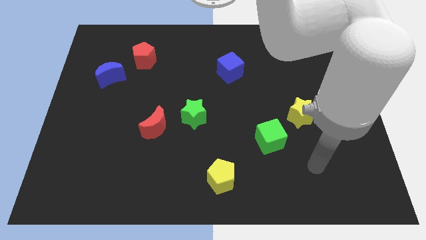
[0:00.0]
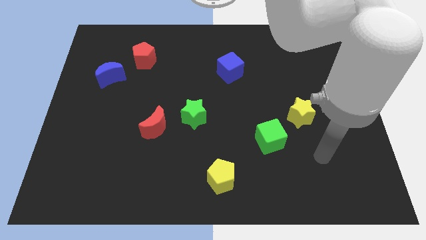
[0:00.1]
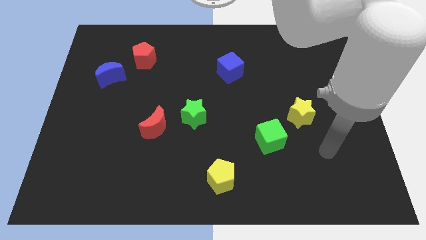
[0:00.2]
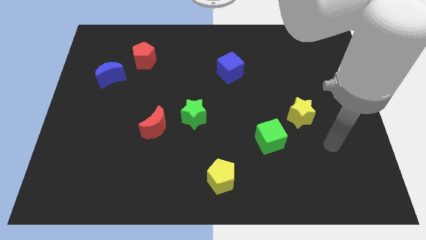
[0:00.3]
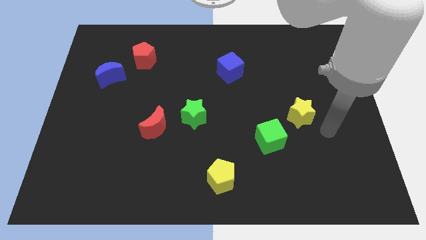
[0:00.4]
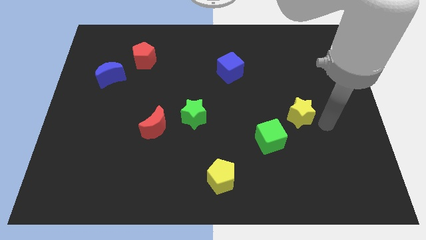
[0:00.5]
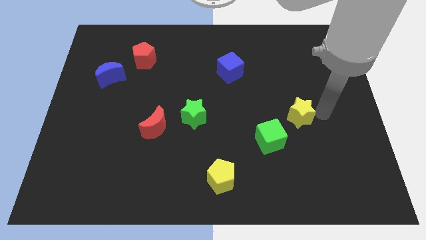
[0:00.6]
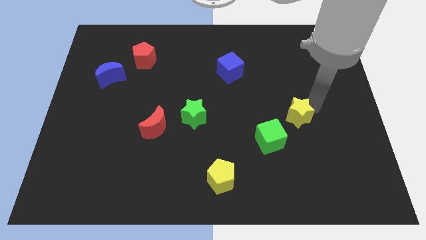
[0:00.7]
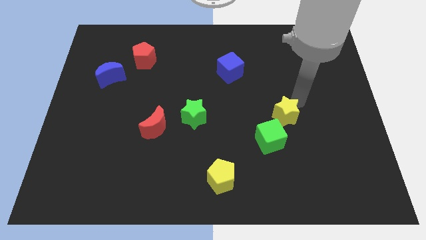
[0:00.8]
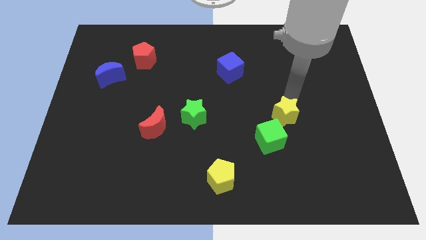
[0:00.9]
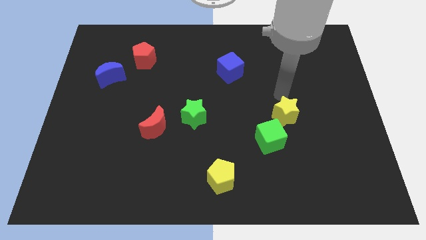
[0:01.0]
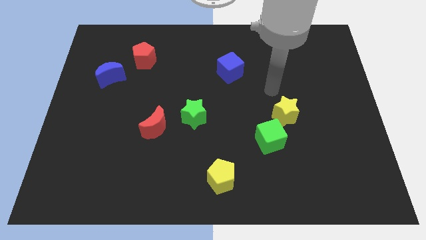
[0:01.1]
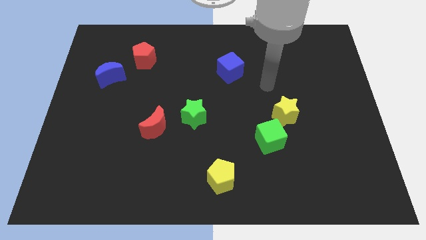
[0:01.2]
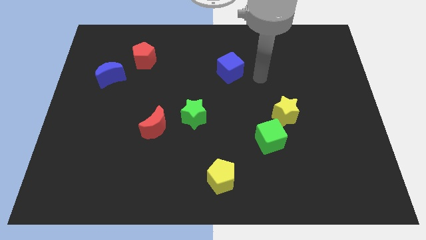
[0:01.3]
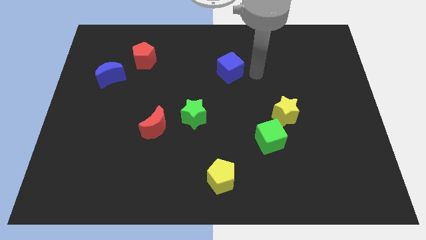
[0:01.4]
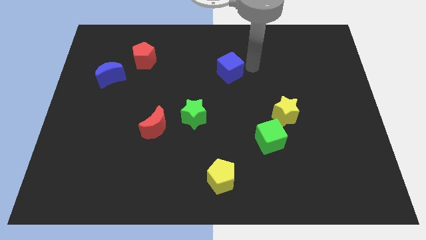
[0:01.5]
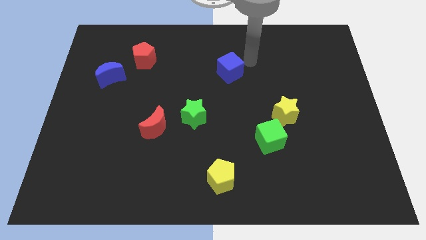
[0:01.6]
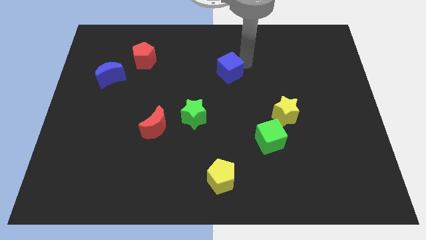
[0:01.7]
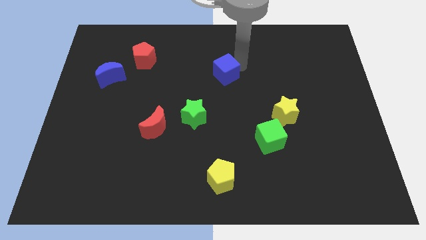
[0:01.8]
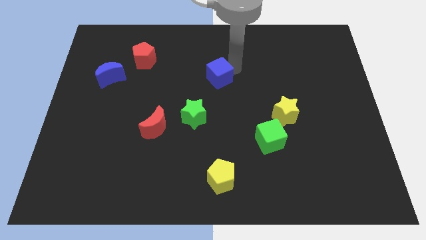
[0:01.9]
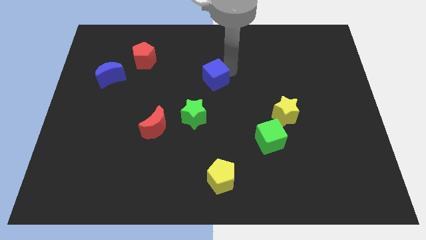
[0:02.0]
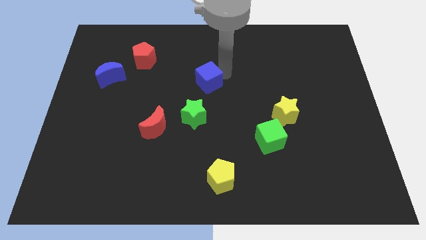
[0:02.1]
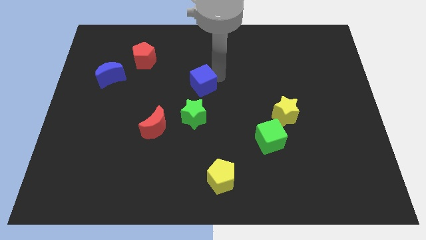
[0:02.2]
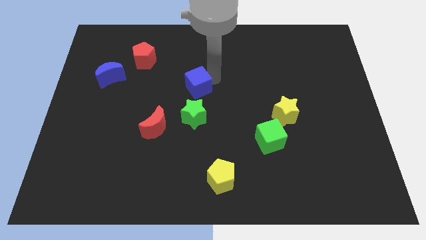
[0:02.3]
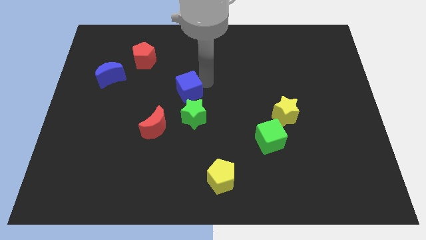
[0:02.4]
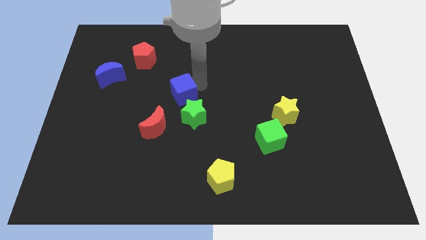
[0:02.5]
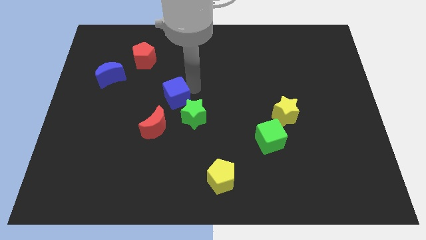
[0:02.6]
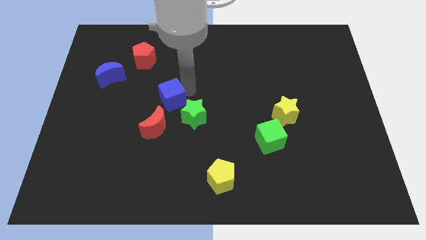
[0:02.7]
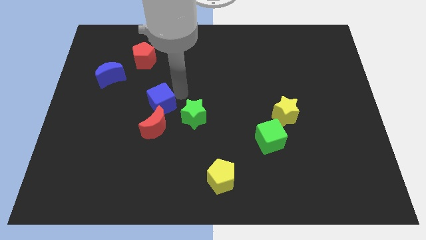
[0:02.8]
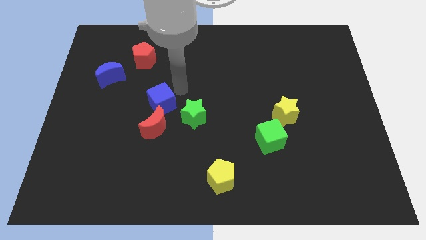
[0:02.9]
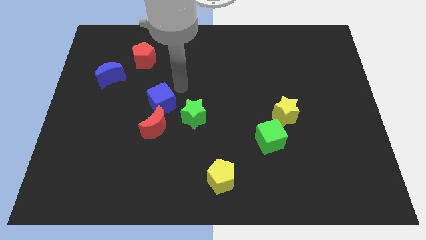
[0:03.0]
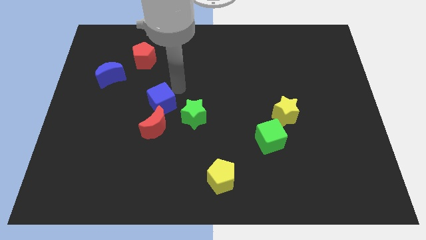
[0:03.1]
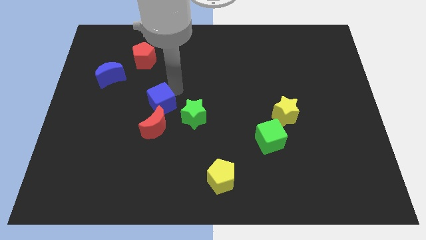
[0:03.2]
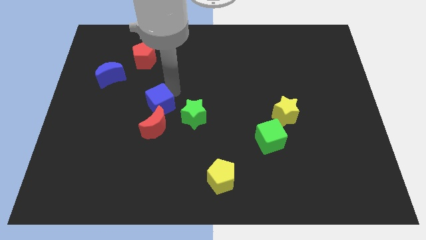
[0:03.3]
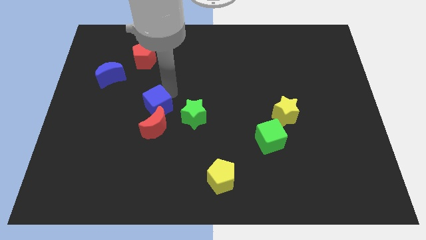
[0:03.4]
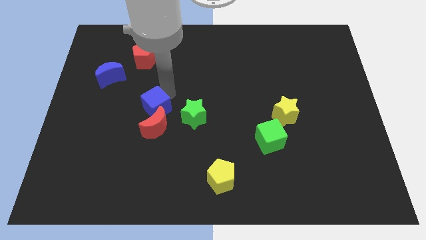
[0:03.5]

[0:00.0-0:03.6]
push the blue cube downwards and to the left diagonally

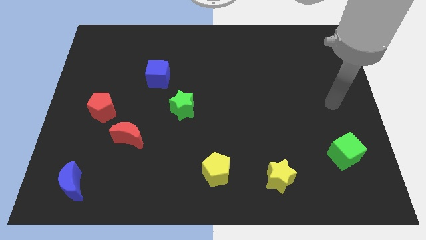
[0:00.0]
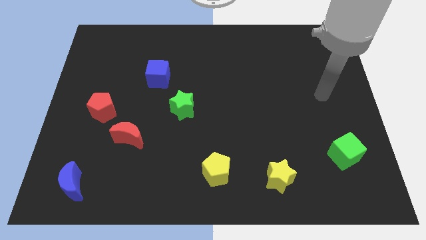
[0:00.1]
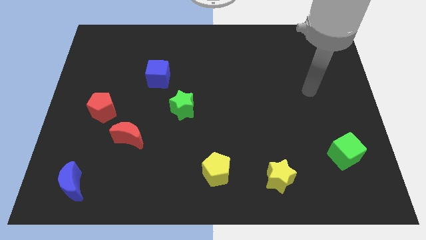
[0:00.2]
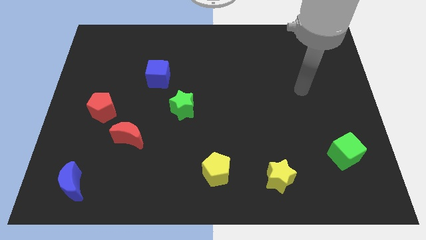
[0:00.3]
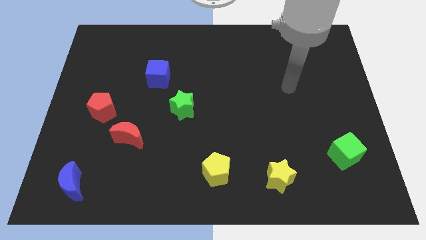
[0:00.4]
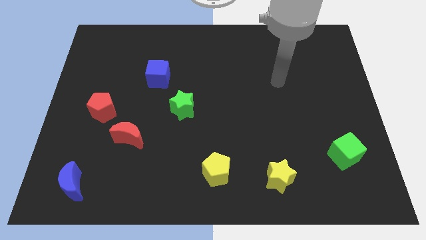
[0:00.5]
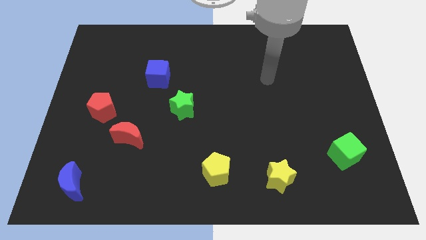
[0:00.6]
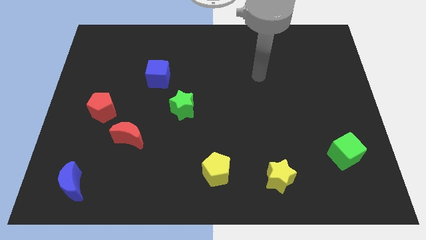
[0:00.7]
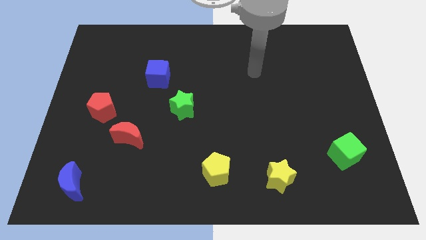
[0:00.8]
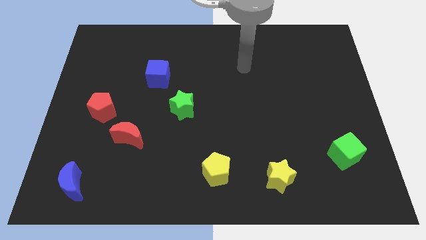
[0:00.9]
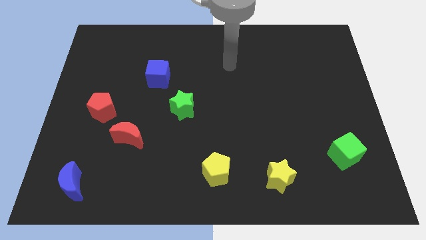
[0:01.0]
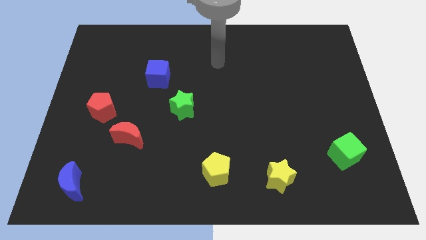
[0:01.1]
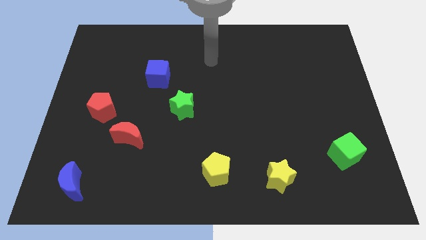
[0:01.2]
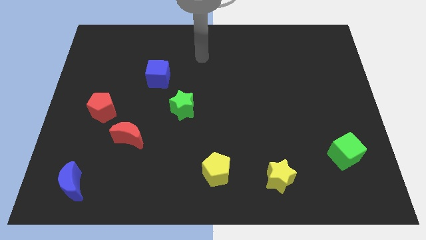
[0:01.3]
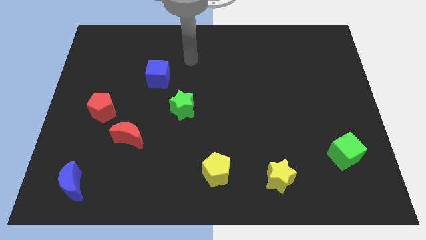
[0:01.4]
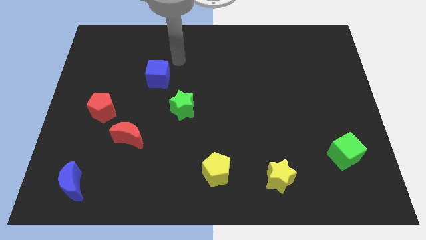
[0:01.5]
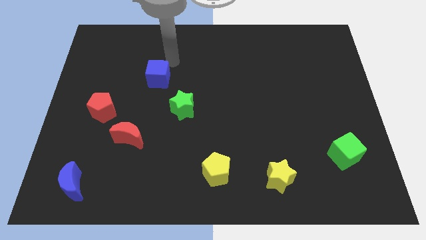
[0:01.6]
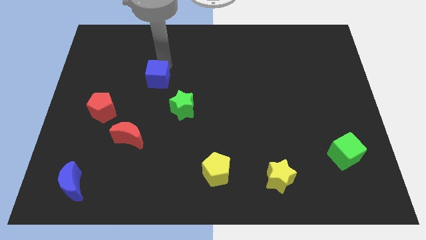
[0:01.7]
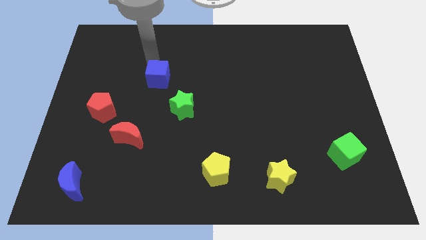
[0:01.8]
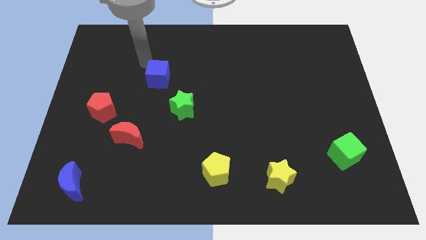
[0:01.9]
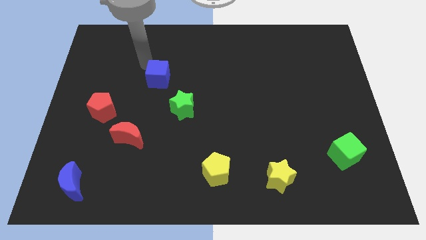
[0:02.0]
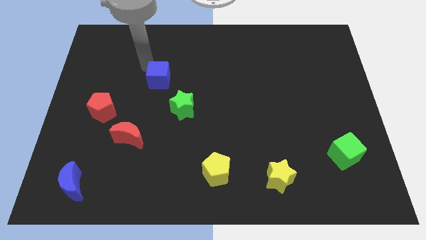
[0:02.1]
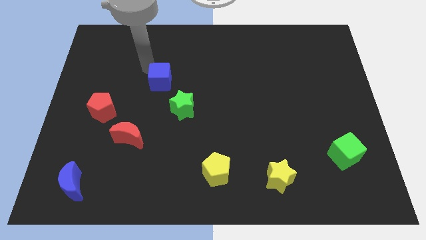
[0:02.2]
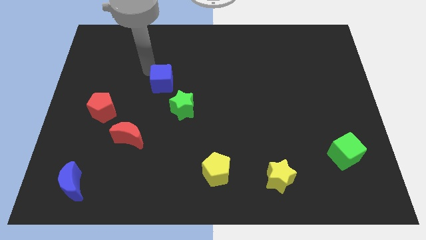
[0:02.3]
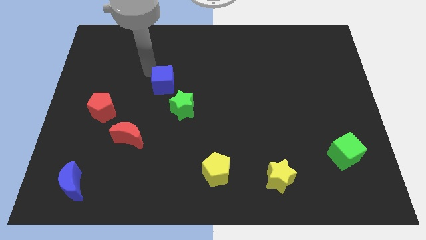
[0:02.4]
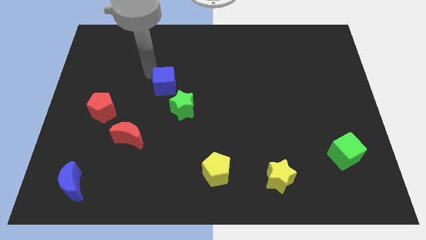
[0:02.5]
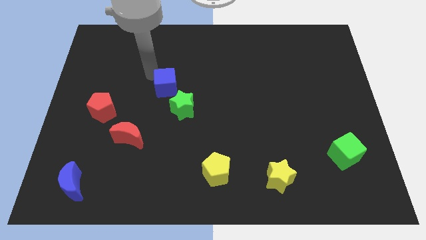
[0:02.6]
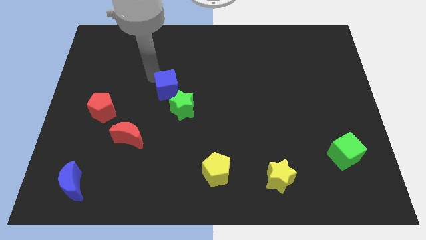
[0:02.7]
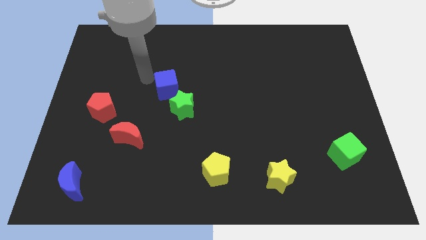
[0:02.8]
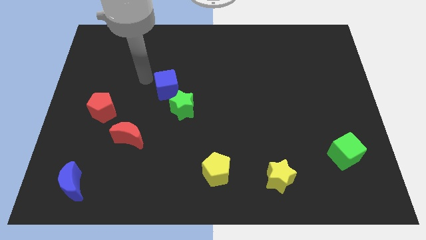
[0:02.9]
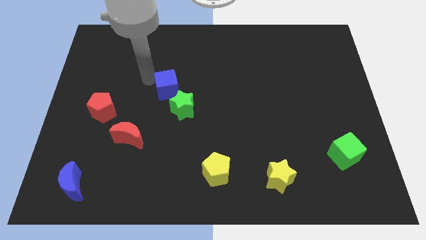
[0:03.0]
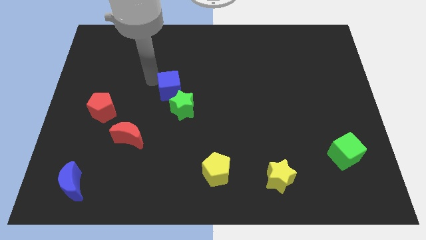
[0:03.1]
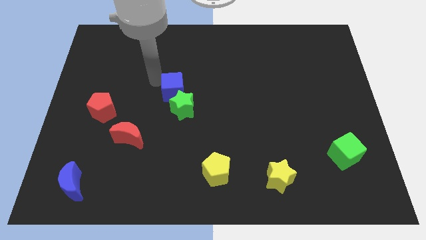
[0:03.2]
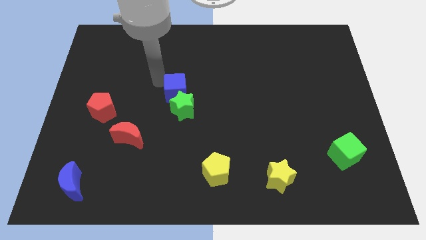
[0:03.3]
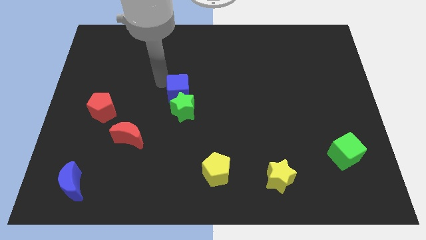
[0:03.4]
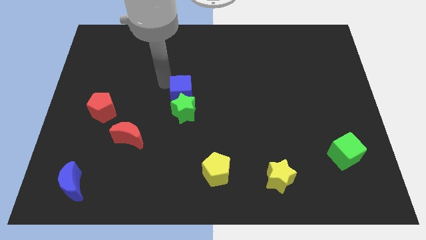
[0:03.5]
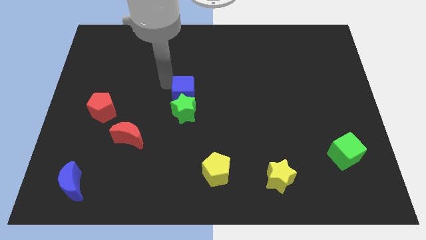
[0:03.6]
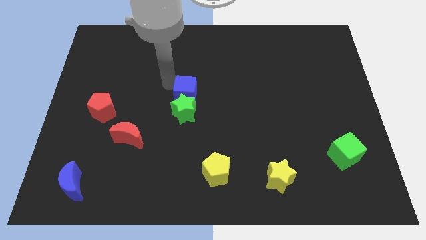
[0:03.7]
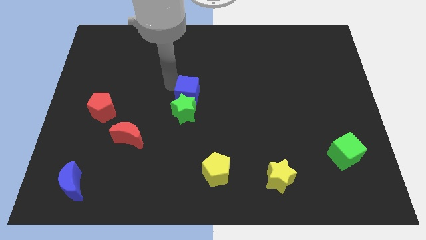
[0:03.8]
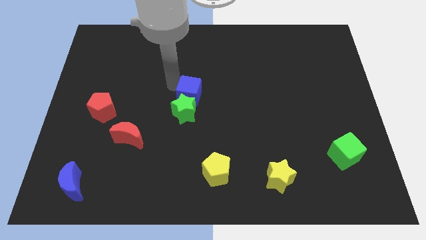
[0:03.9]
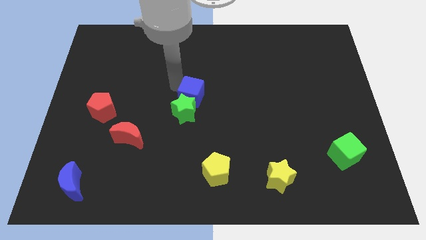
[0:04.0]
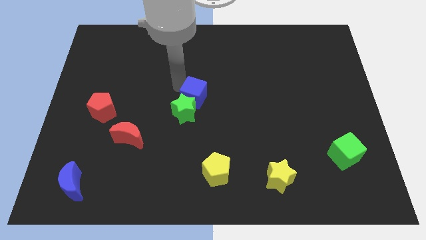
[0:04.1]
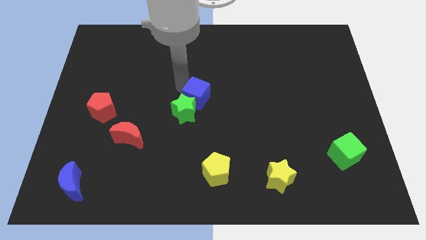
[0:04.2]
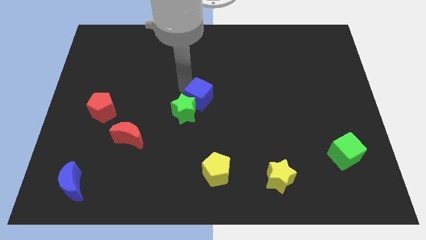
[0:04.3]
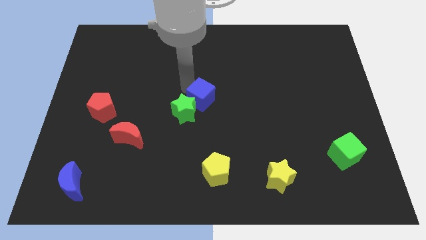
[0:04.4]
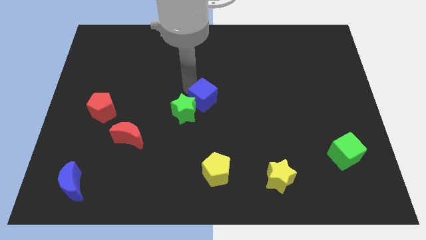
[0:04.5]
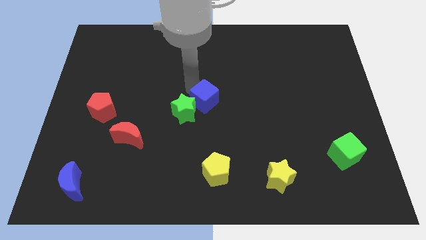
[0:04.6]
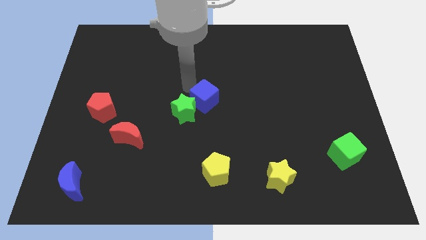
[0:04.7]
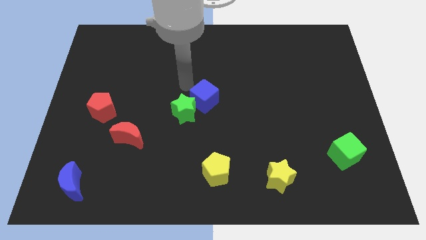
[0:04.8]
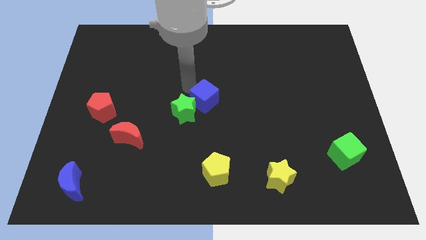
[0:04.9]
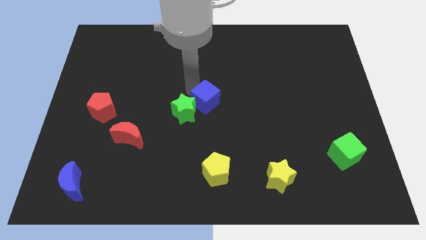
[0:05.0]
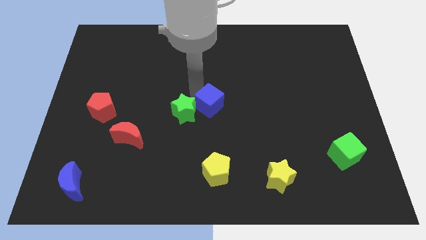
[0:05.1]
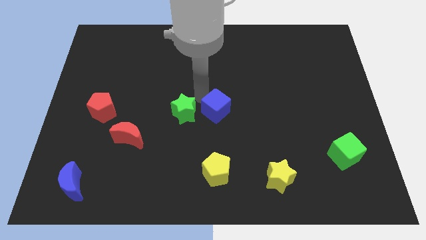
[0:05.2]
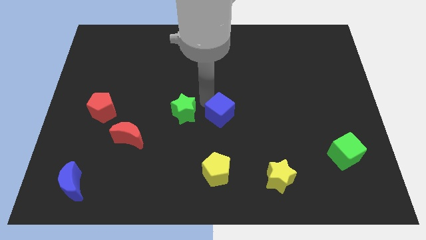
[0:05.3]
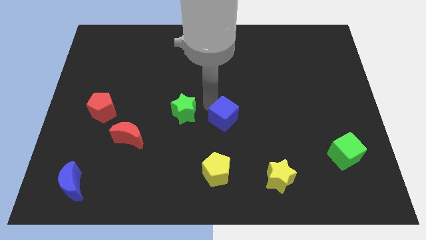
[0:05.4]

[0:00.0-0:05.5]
slide the blue cube diagonally downwards and to the right
